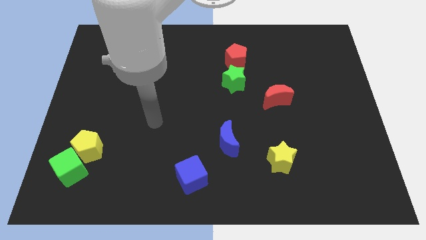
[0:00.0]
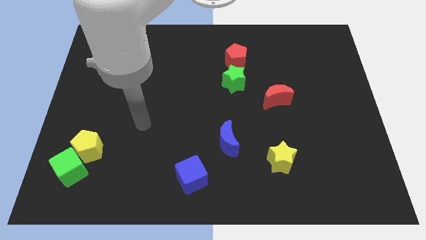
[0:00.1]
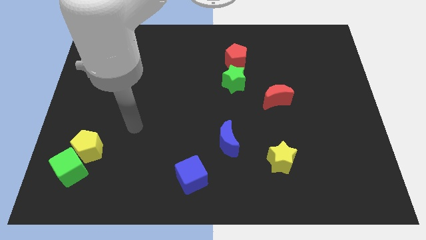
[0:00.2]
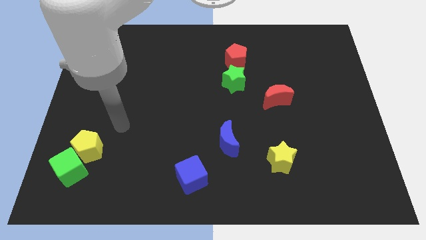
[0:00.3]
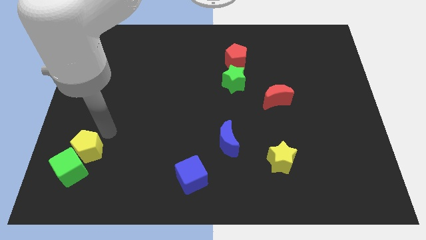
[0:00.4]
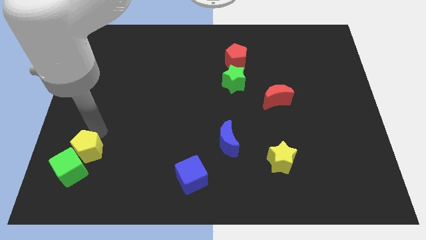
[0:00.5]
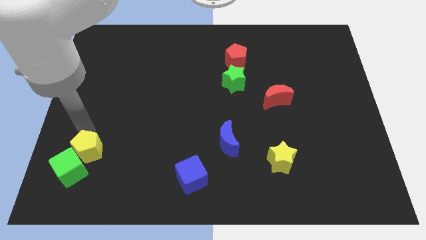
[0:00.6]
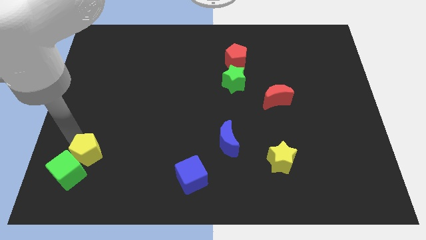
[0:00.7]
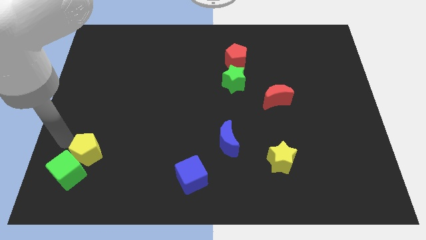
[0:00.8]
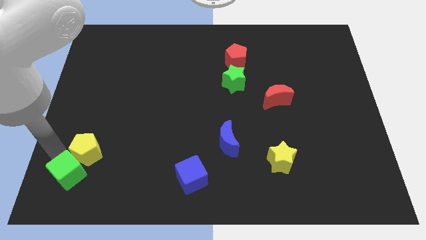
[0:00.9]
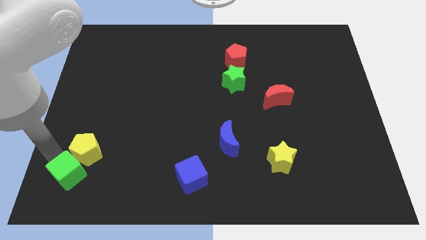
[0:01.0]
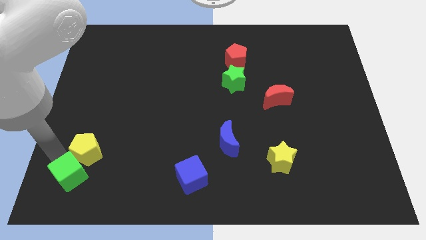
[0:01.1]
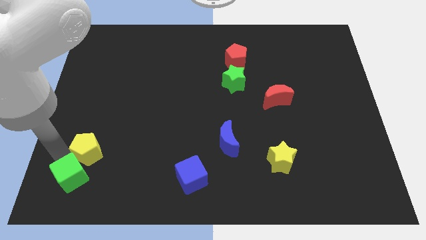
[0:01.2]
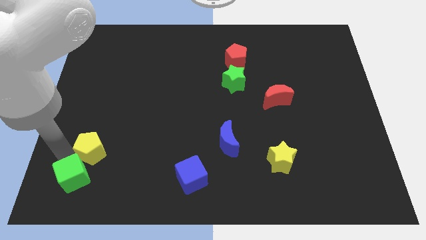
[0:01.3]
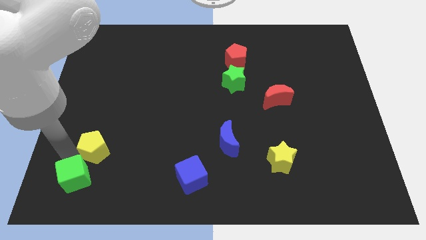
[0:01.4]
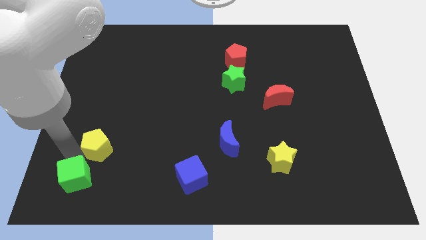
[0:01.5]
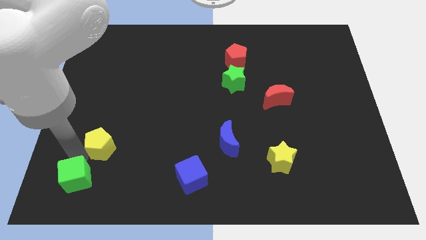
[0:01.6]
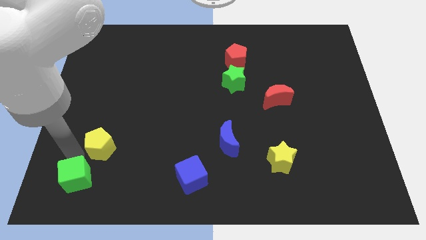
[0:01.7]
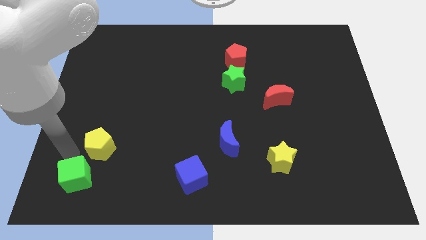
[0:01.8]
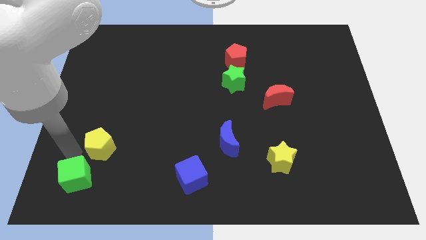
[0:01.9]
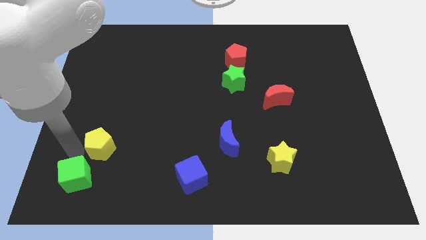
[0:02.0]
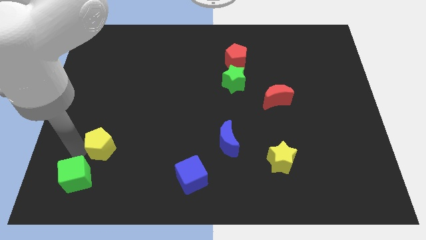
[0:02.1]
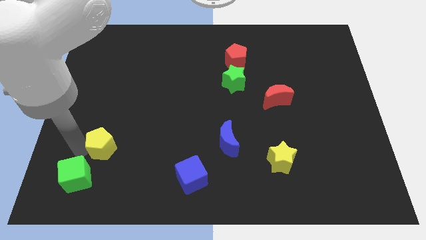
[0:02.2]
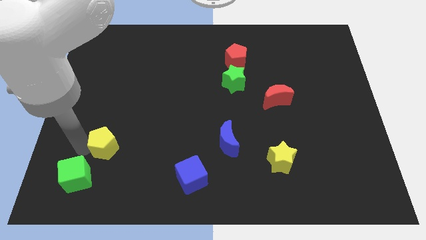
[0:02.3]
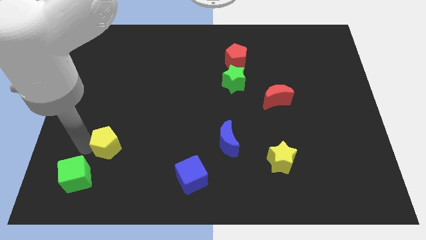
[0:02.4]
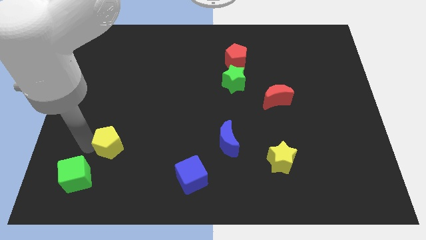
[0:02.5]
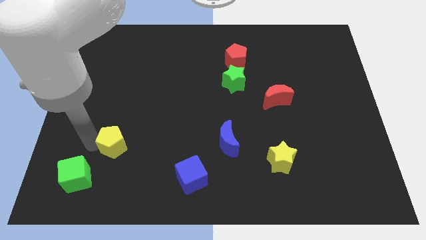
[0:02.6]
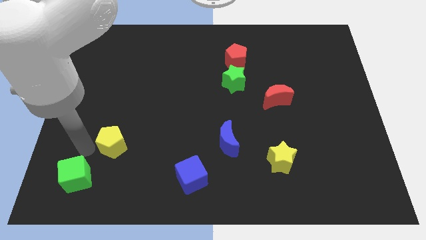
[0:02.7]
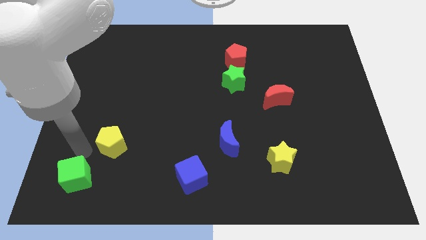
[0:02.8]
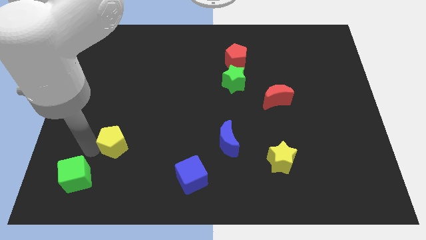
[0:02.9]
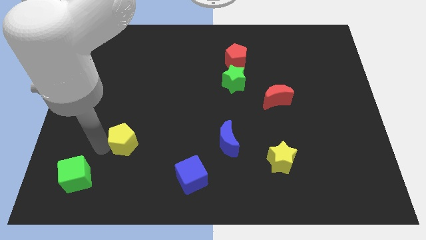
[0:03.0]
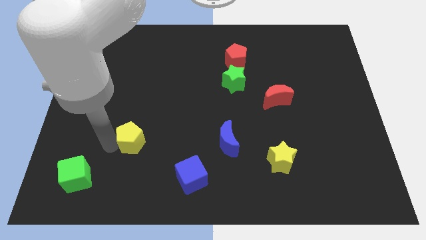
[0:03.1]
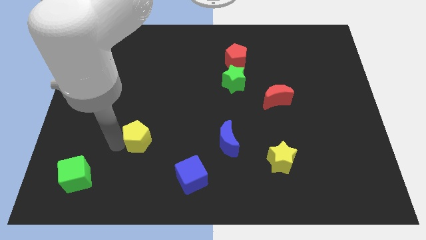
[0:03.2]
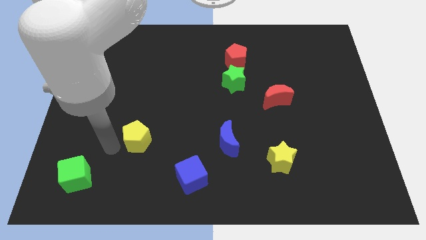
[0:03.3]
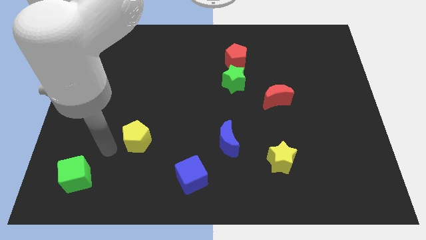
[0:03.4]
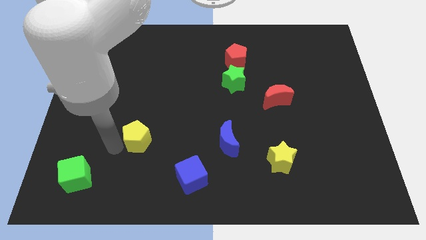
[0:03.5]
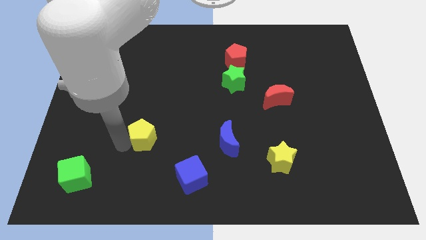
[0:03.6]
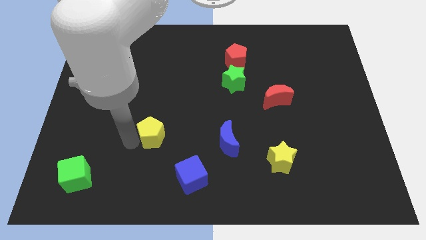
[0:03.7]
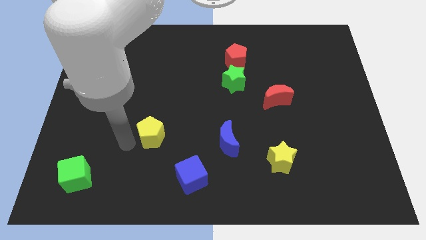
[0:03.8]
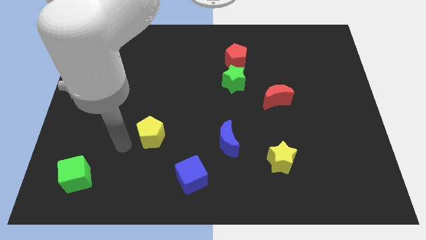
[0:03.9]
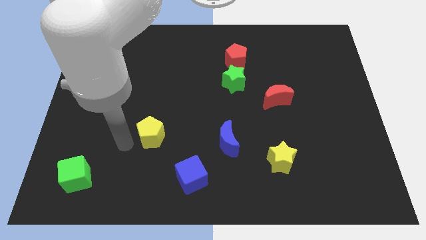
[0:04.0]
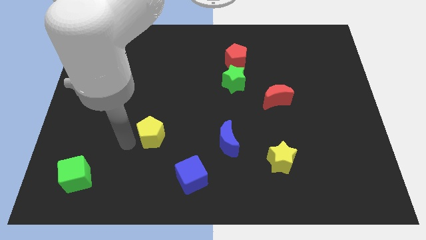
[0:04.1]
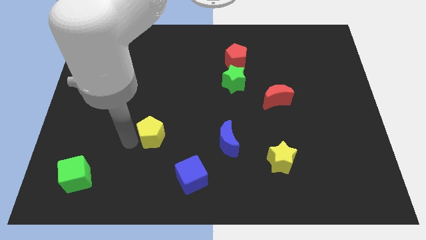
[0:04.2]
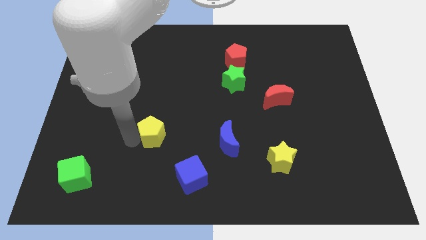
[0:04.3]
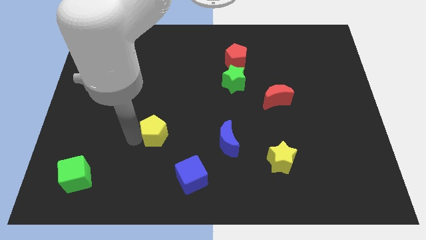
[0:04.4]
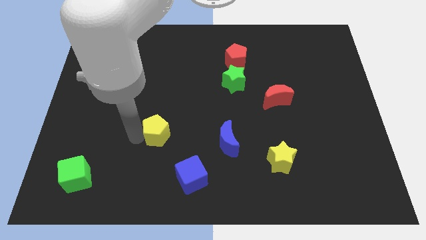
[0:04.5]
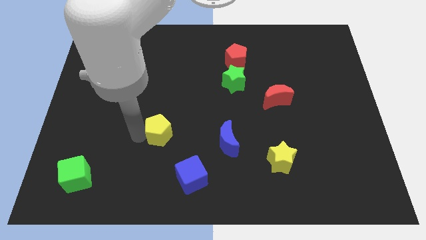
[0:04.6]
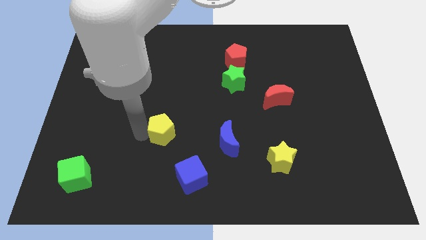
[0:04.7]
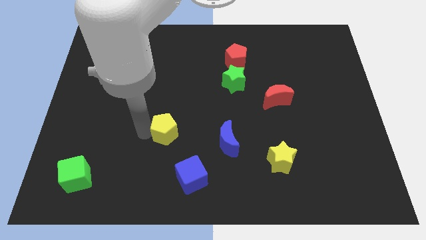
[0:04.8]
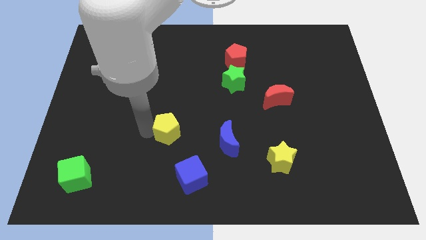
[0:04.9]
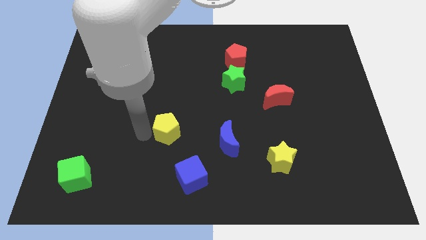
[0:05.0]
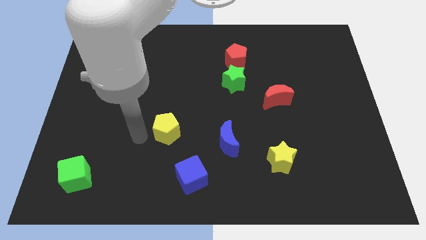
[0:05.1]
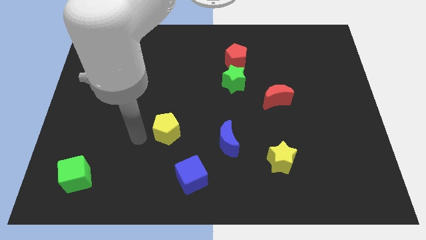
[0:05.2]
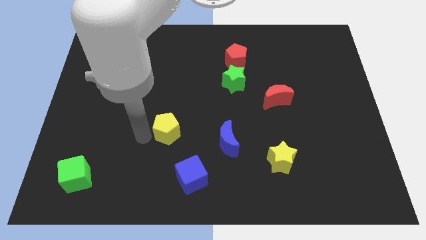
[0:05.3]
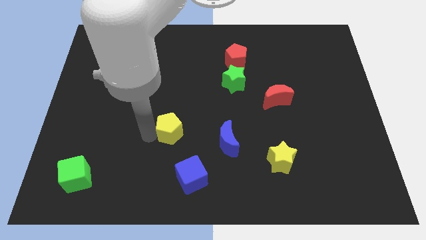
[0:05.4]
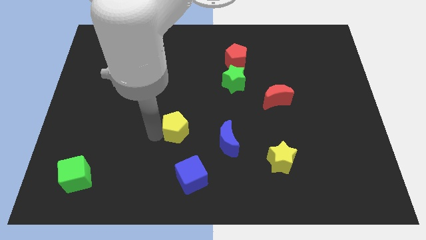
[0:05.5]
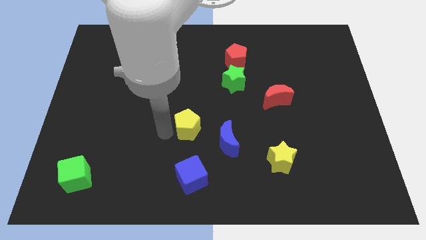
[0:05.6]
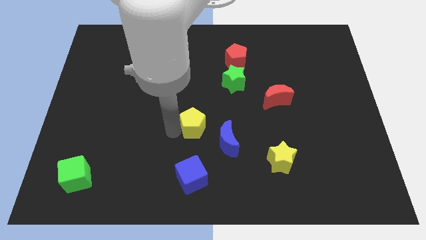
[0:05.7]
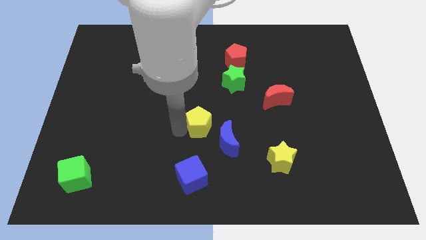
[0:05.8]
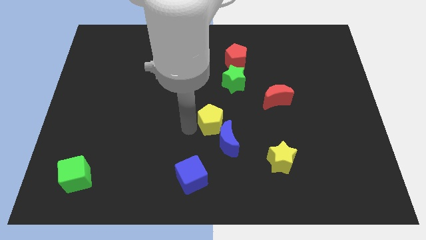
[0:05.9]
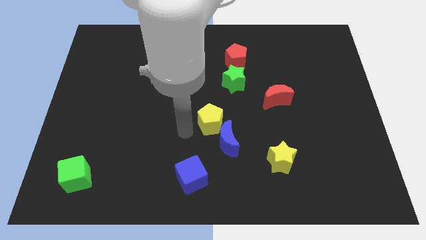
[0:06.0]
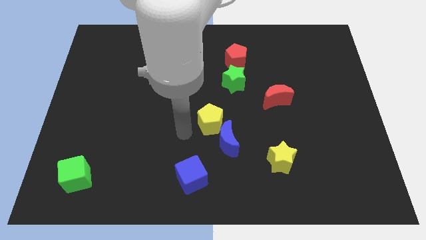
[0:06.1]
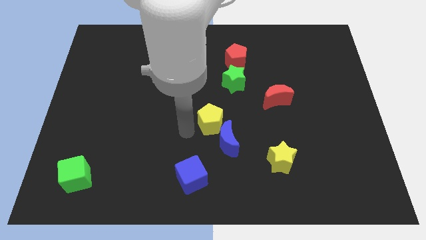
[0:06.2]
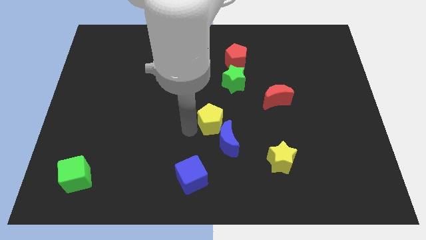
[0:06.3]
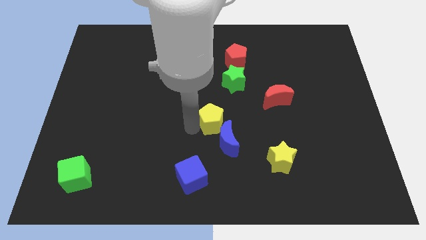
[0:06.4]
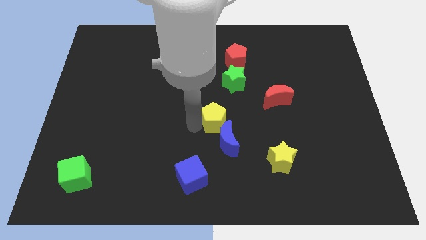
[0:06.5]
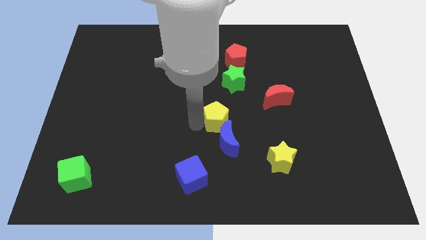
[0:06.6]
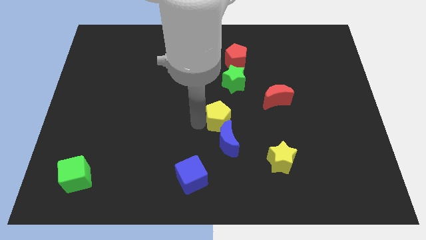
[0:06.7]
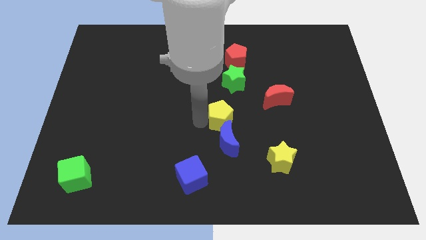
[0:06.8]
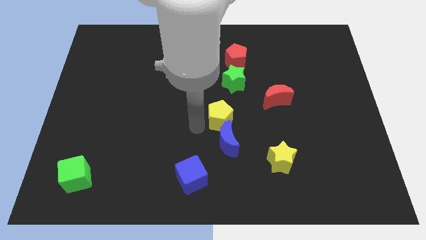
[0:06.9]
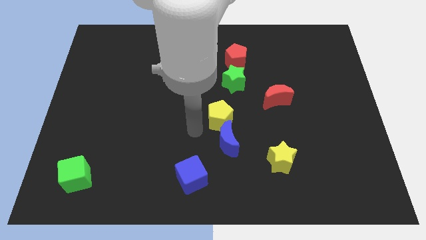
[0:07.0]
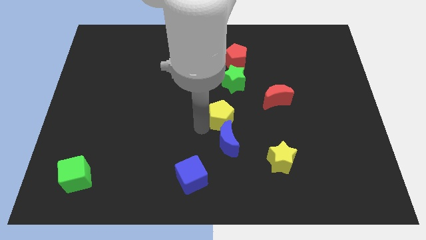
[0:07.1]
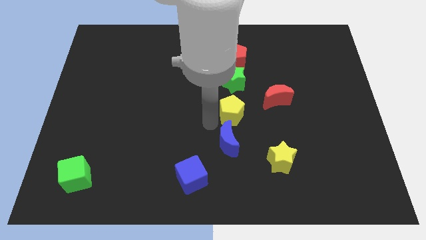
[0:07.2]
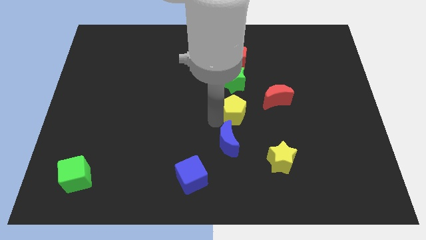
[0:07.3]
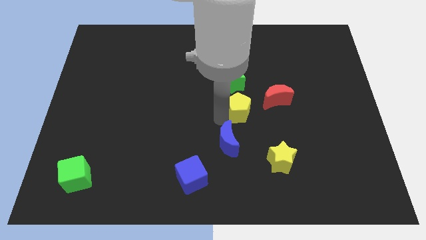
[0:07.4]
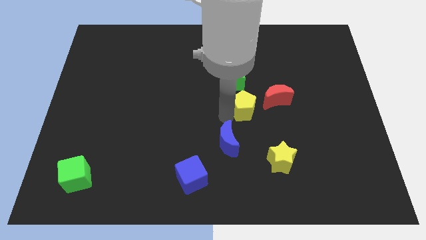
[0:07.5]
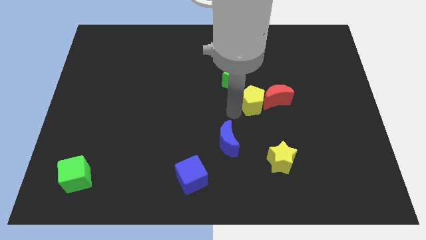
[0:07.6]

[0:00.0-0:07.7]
put the yellow pentagon close to the red moon

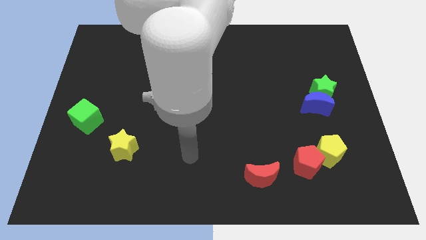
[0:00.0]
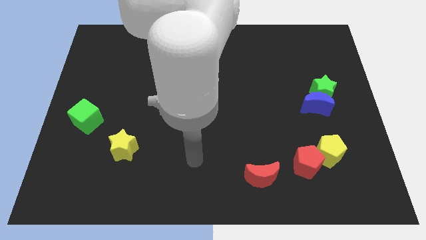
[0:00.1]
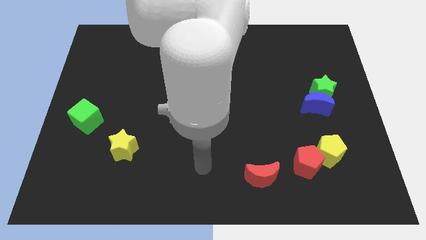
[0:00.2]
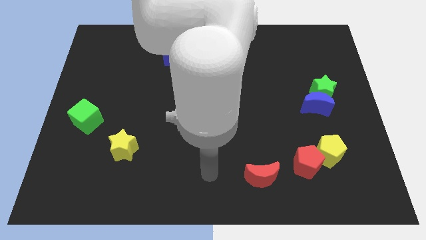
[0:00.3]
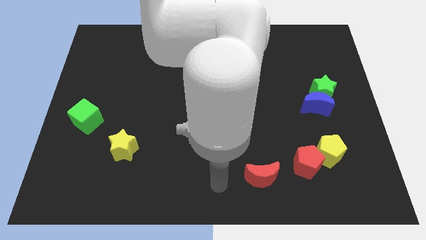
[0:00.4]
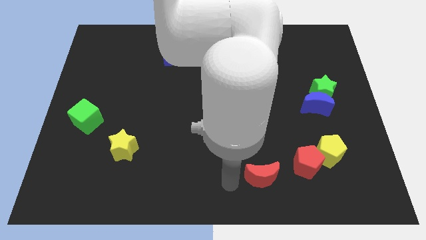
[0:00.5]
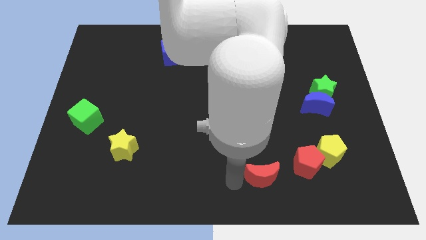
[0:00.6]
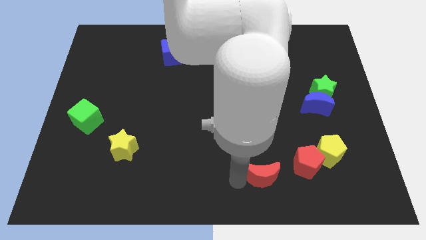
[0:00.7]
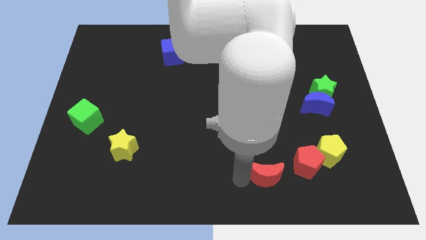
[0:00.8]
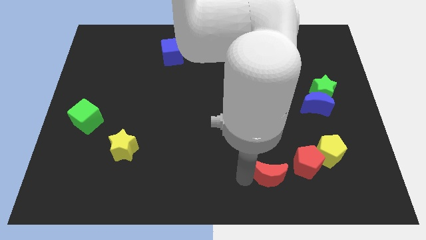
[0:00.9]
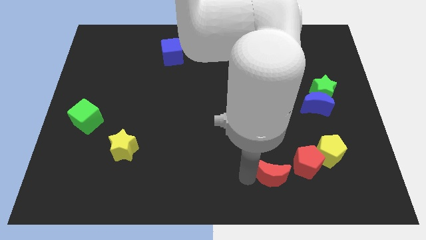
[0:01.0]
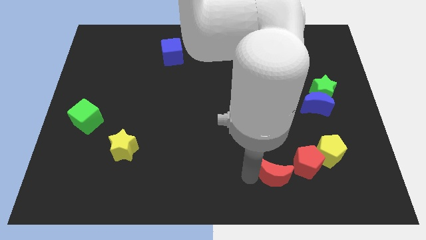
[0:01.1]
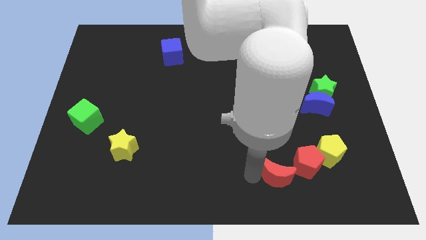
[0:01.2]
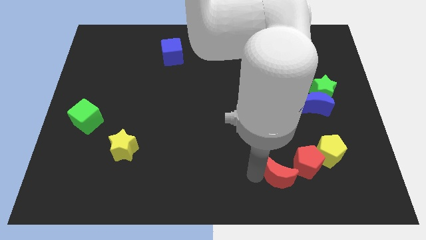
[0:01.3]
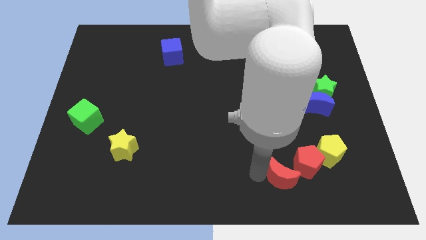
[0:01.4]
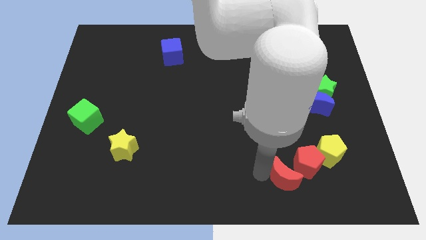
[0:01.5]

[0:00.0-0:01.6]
put the red moon next to the red pentagon
